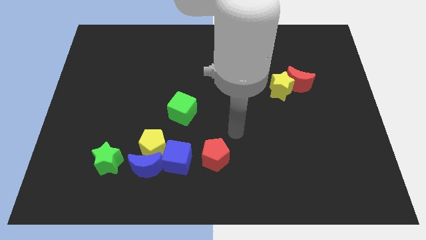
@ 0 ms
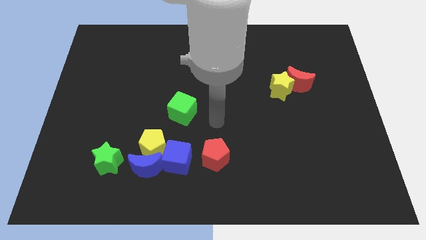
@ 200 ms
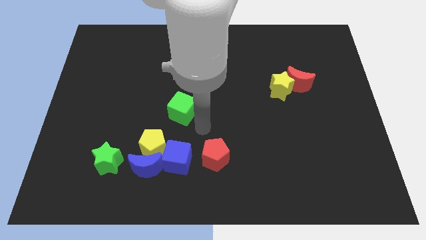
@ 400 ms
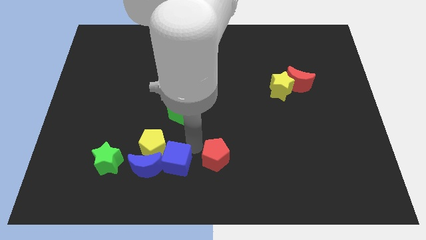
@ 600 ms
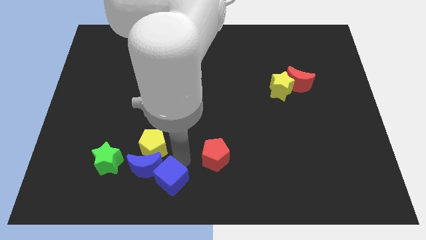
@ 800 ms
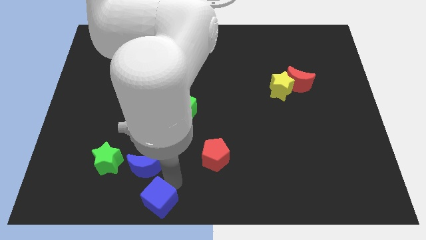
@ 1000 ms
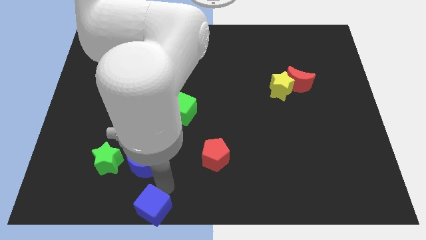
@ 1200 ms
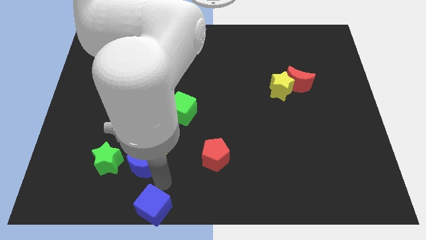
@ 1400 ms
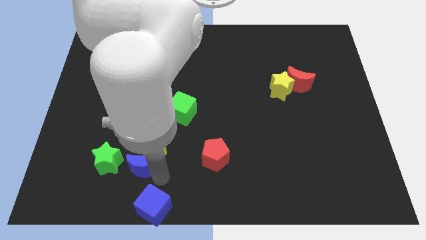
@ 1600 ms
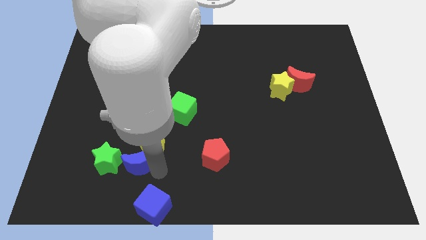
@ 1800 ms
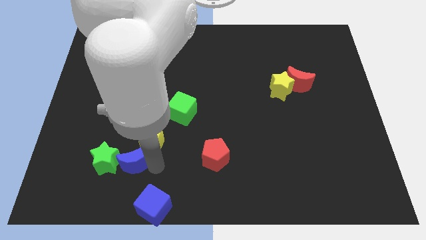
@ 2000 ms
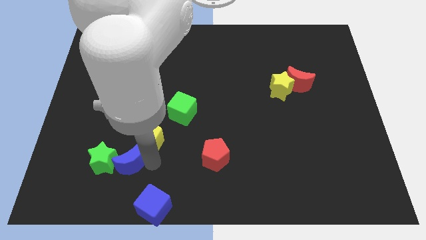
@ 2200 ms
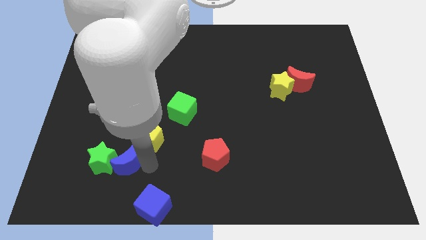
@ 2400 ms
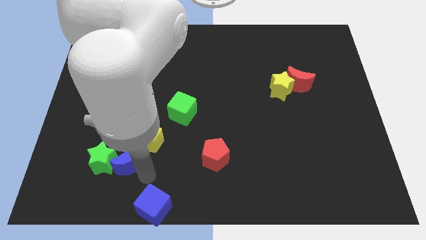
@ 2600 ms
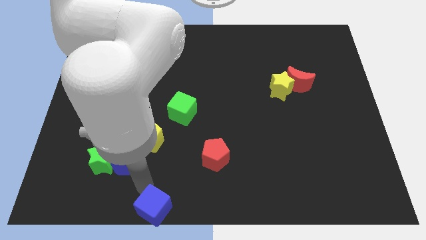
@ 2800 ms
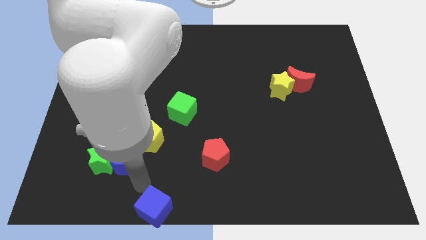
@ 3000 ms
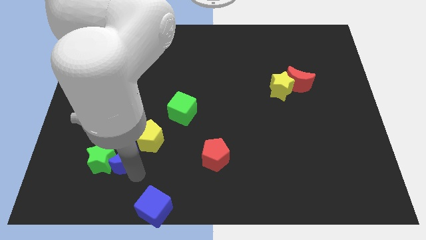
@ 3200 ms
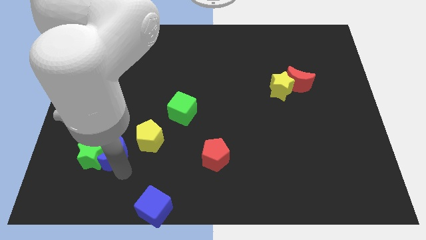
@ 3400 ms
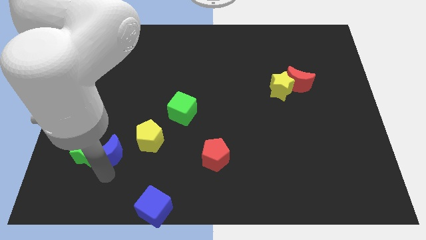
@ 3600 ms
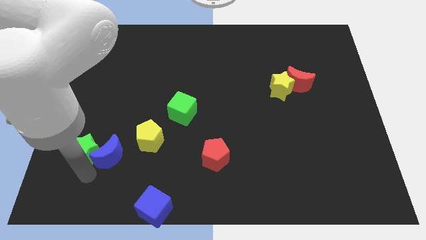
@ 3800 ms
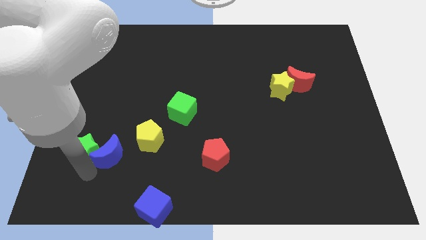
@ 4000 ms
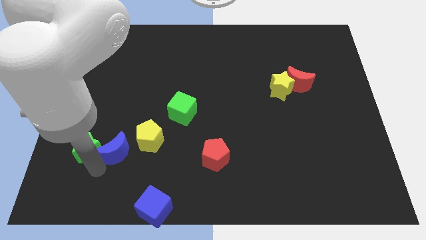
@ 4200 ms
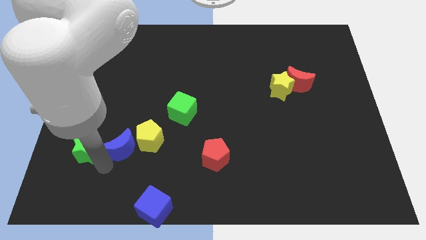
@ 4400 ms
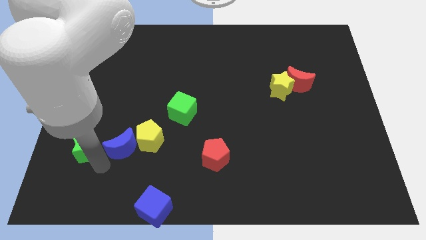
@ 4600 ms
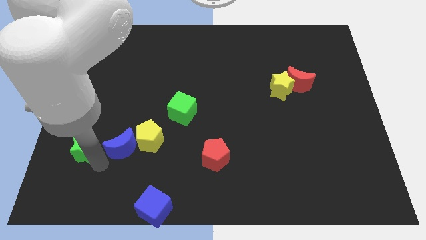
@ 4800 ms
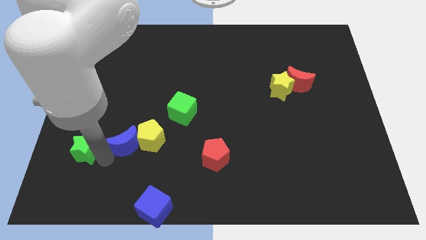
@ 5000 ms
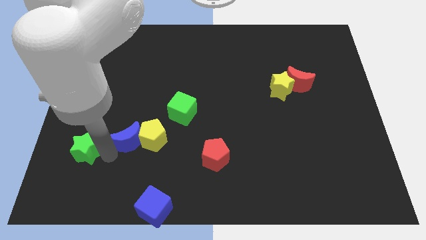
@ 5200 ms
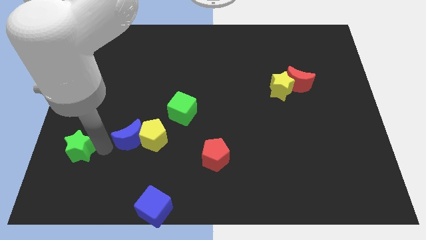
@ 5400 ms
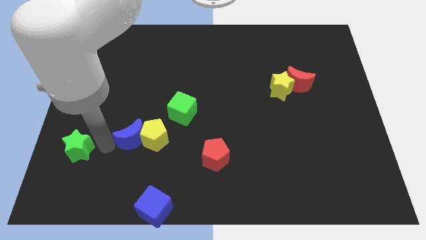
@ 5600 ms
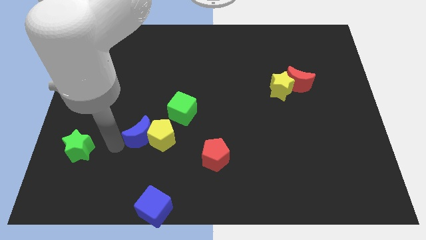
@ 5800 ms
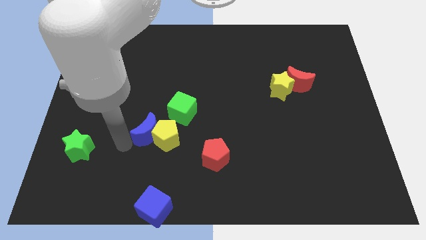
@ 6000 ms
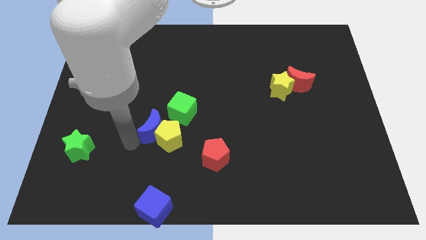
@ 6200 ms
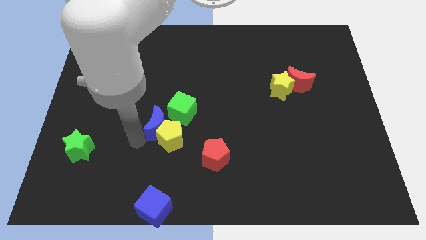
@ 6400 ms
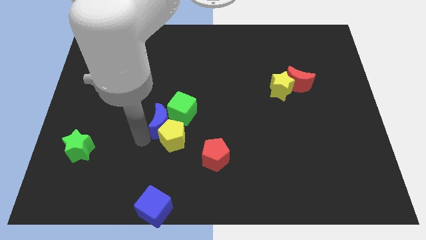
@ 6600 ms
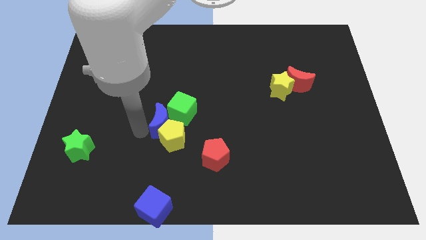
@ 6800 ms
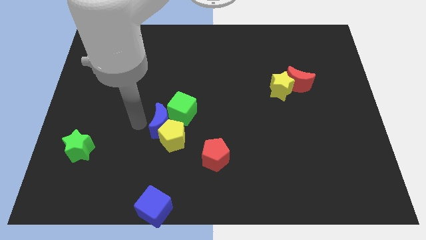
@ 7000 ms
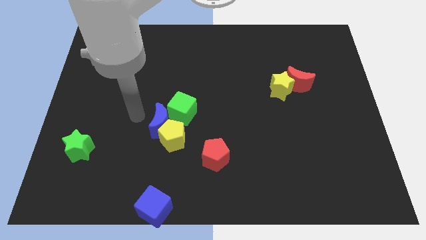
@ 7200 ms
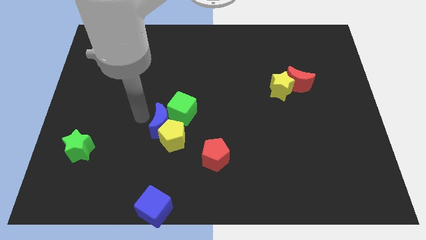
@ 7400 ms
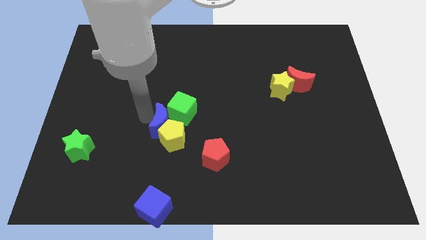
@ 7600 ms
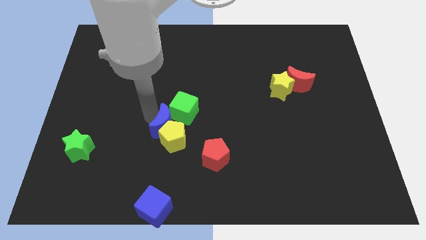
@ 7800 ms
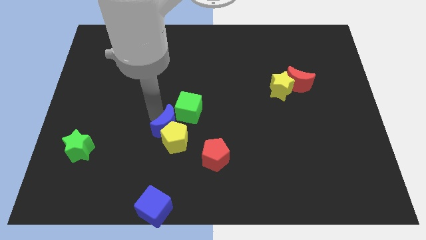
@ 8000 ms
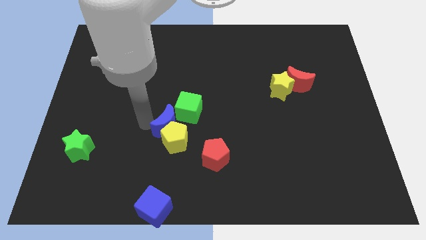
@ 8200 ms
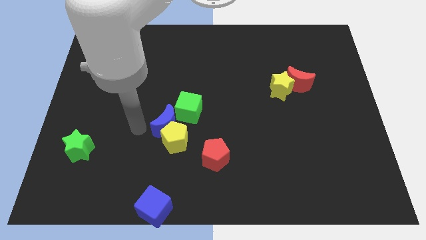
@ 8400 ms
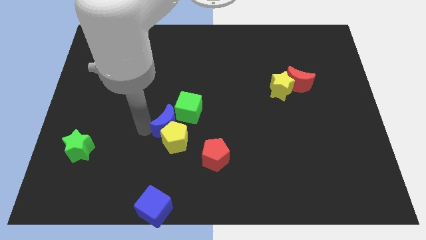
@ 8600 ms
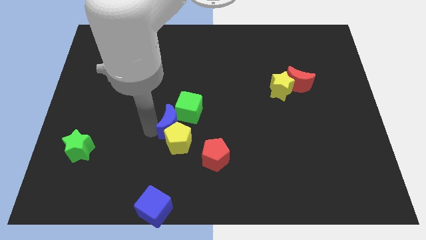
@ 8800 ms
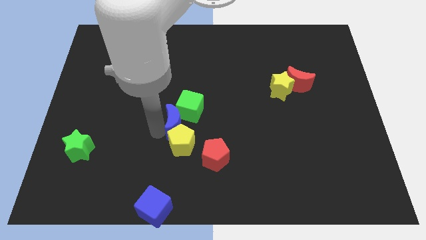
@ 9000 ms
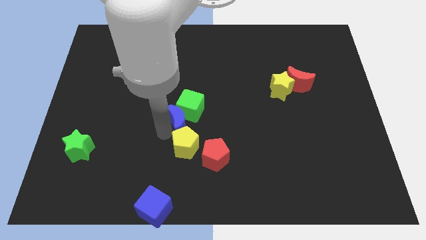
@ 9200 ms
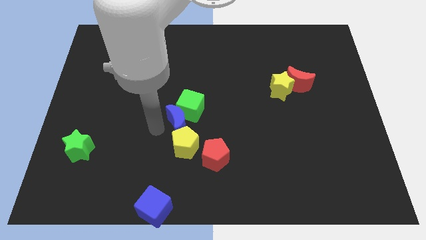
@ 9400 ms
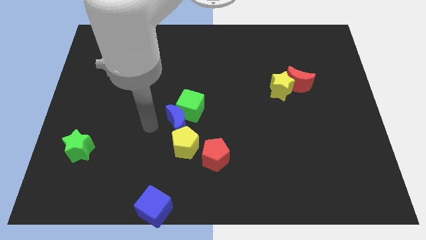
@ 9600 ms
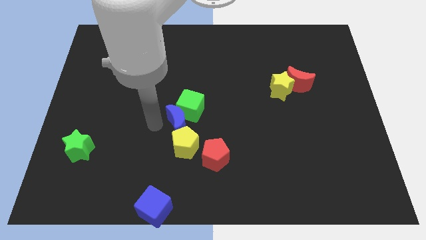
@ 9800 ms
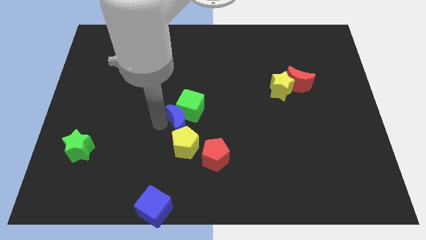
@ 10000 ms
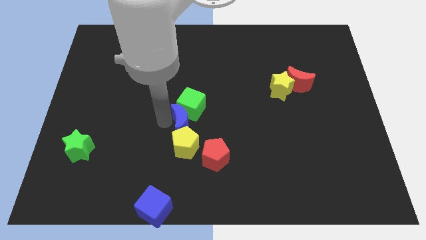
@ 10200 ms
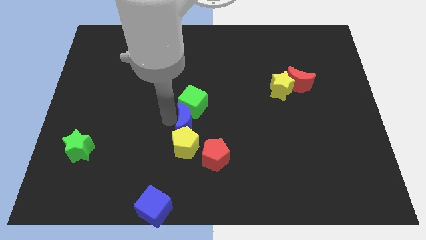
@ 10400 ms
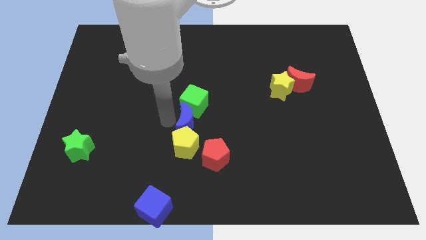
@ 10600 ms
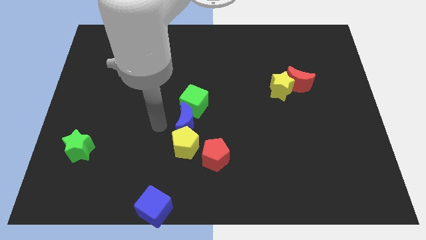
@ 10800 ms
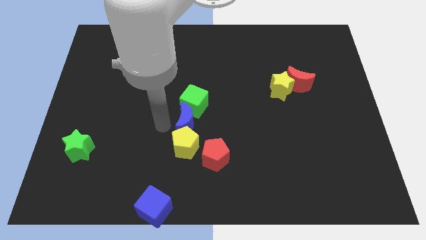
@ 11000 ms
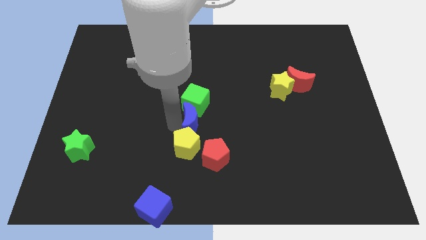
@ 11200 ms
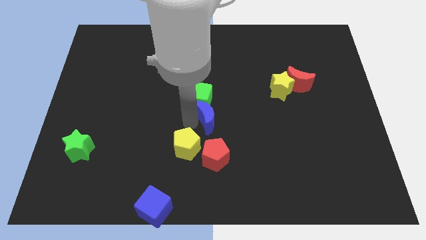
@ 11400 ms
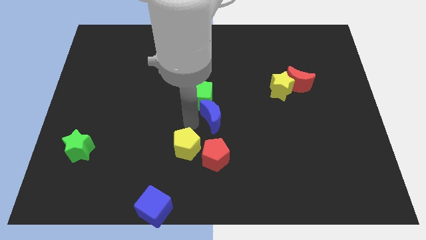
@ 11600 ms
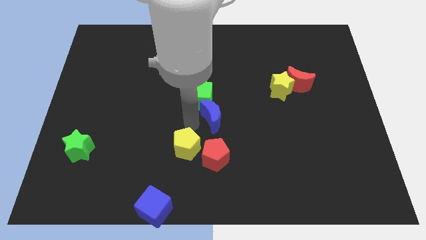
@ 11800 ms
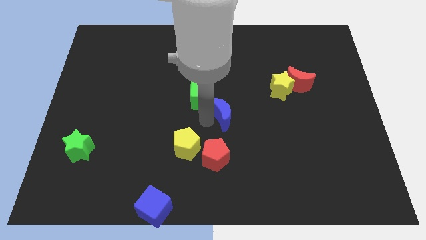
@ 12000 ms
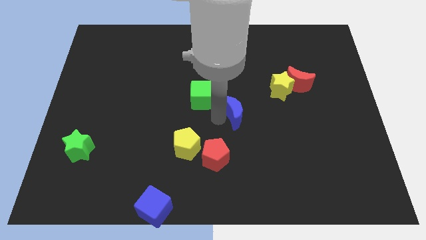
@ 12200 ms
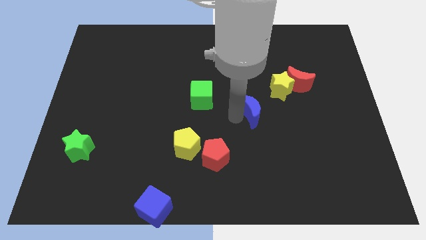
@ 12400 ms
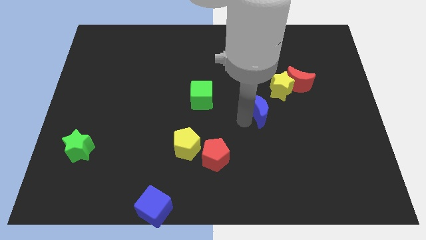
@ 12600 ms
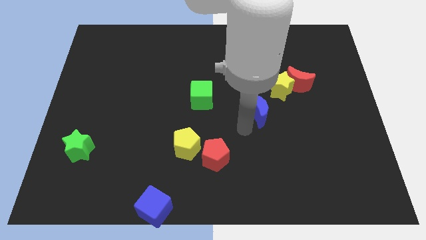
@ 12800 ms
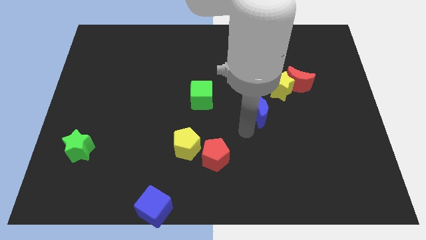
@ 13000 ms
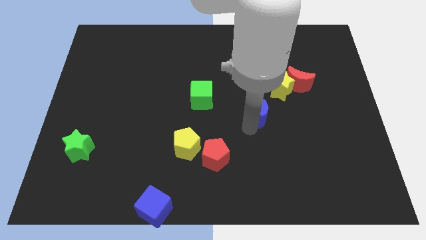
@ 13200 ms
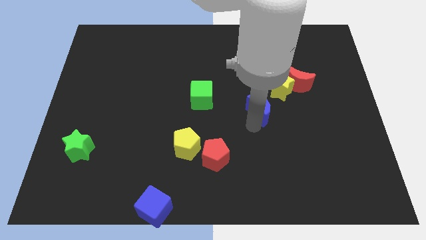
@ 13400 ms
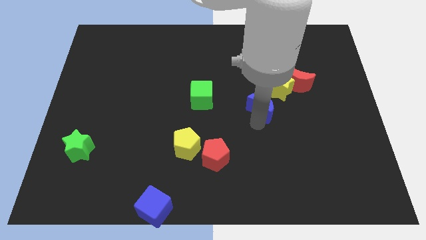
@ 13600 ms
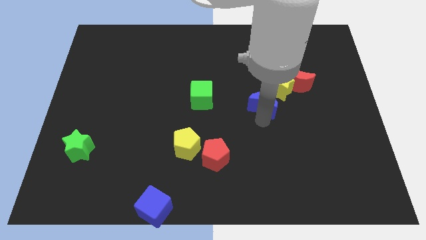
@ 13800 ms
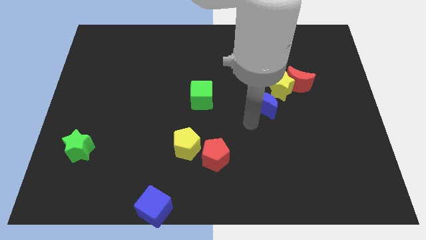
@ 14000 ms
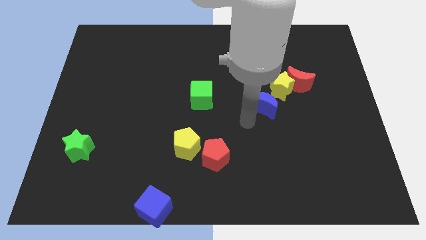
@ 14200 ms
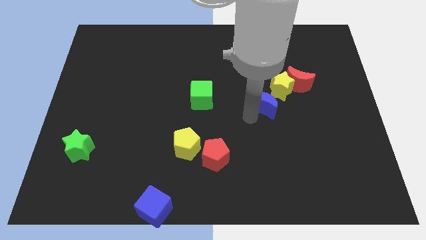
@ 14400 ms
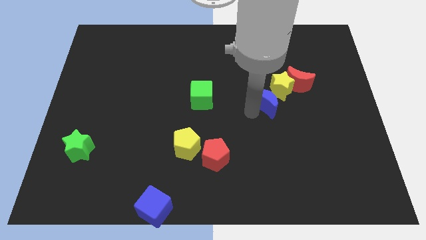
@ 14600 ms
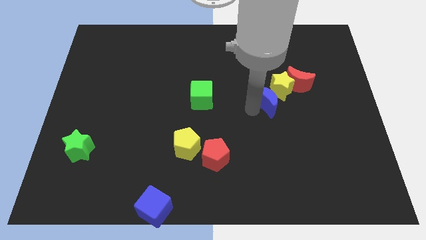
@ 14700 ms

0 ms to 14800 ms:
push the blue moon close to the yellow star

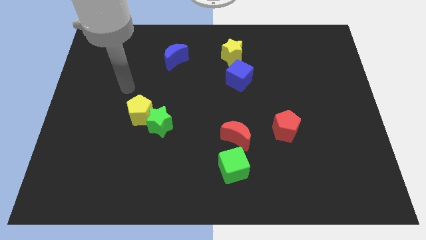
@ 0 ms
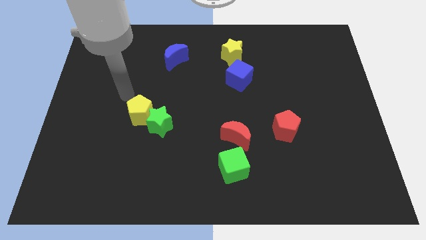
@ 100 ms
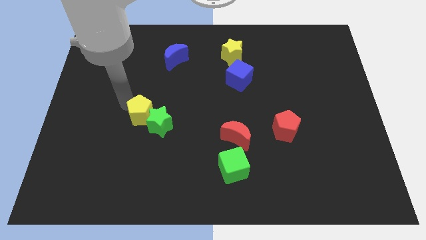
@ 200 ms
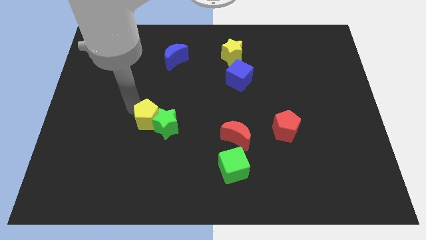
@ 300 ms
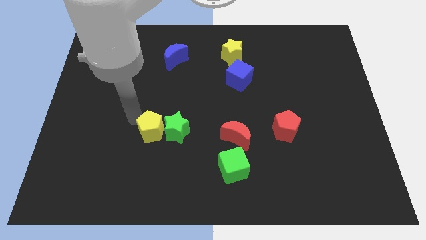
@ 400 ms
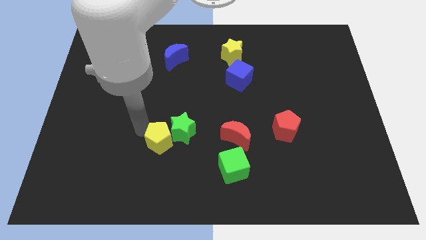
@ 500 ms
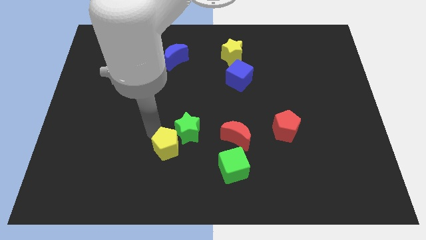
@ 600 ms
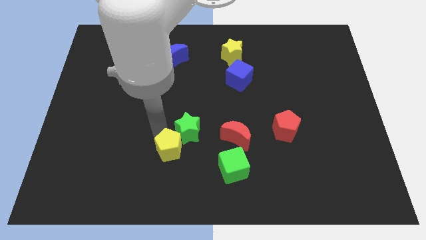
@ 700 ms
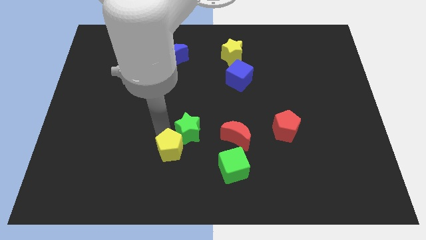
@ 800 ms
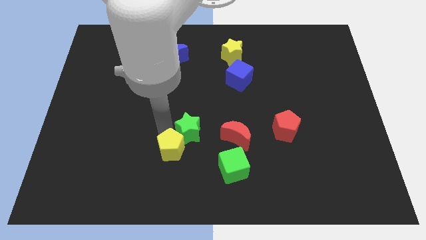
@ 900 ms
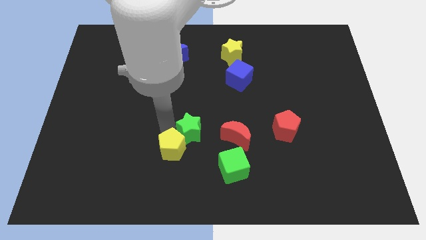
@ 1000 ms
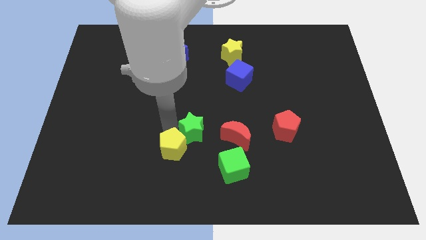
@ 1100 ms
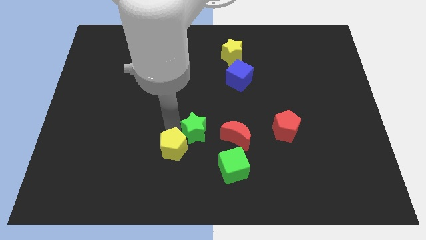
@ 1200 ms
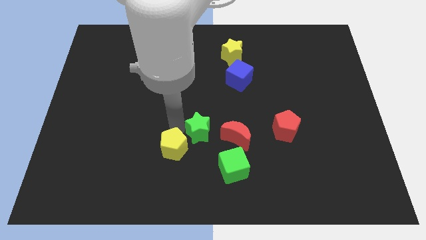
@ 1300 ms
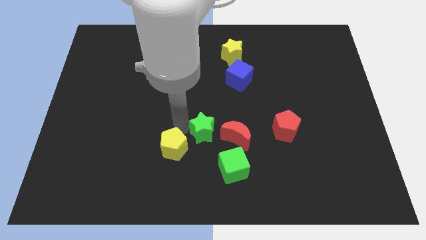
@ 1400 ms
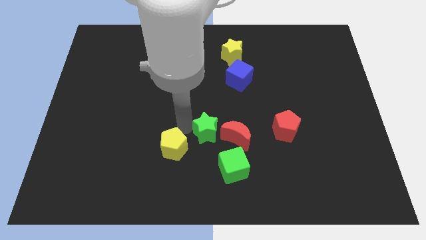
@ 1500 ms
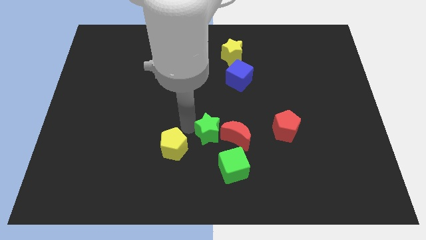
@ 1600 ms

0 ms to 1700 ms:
put the green star towards the red moon
